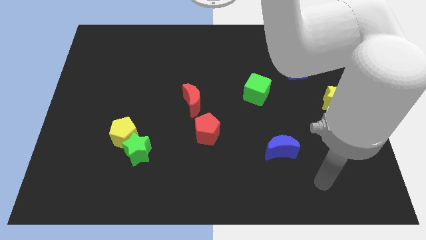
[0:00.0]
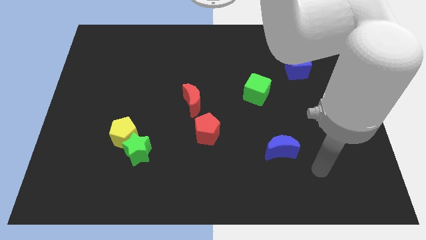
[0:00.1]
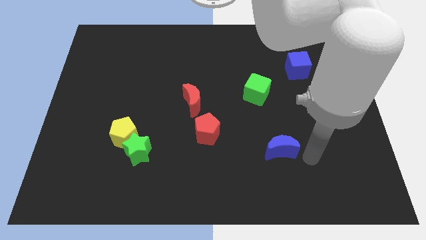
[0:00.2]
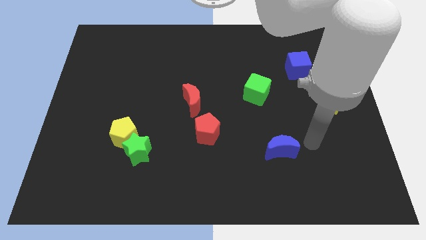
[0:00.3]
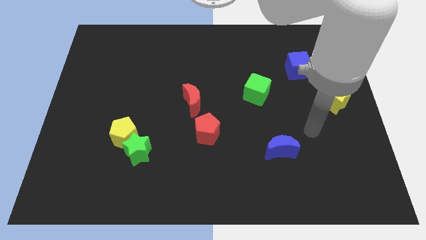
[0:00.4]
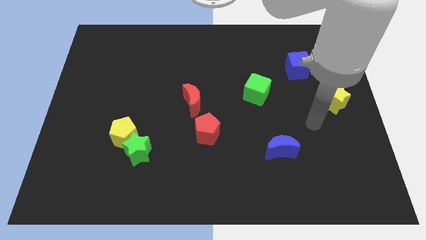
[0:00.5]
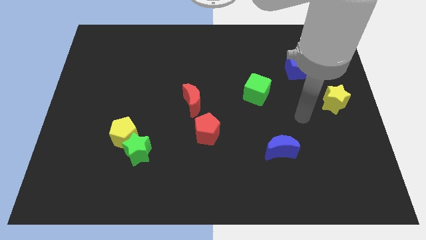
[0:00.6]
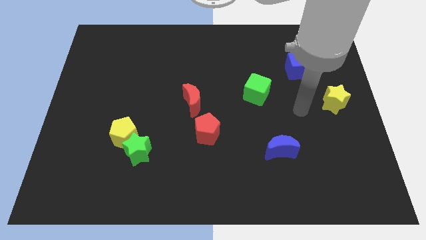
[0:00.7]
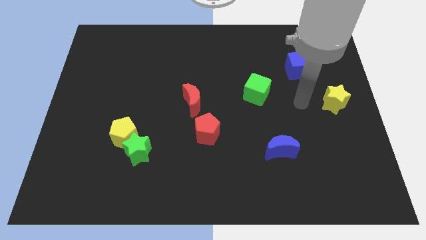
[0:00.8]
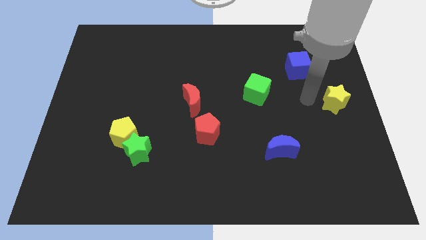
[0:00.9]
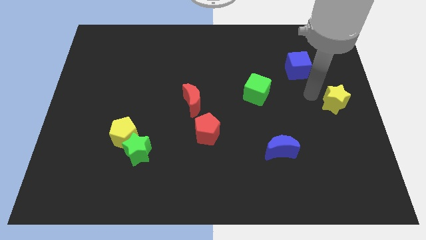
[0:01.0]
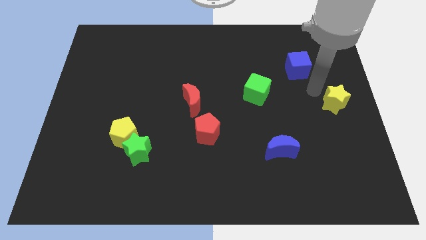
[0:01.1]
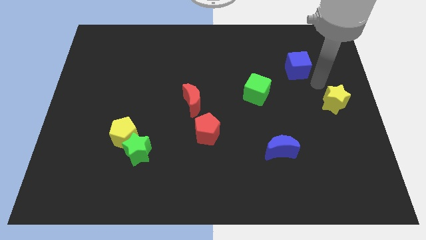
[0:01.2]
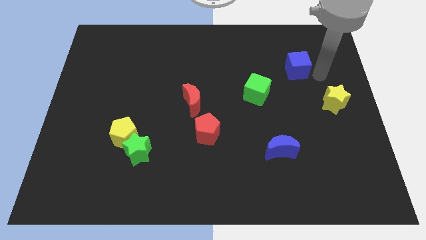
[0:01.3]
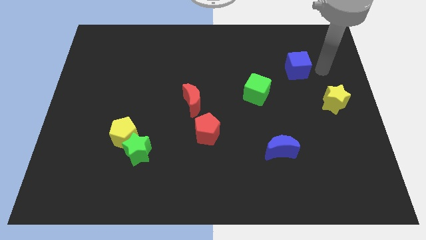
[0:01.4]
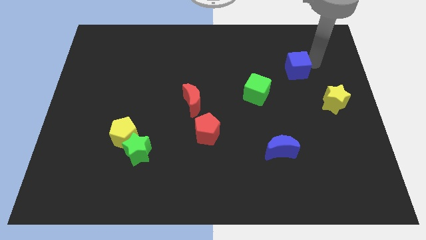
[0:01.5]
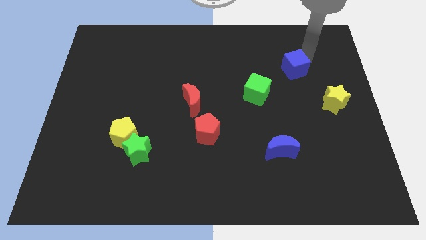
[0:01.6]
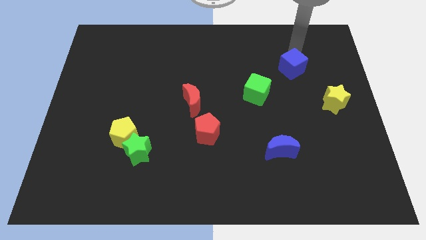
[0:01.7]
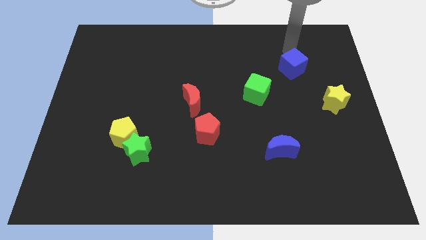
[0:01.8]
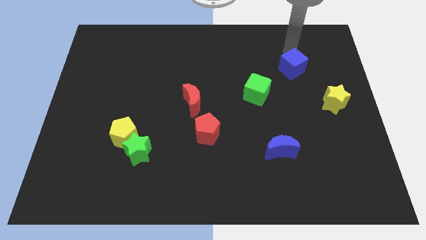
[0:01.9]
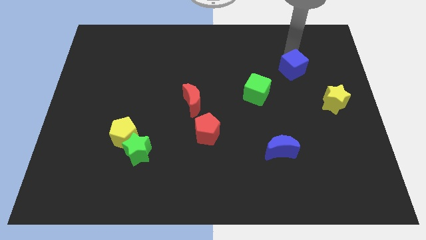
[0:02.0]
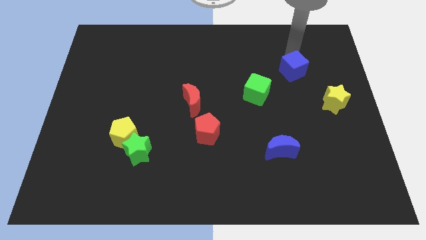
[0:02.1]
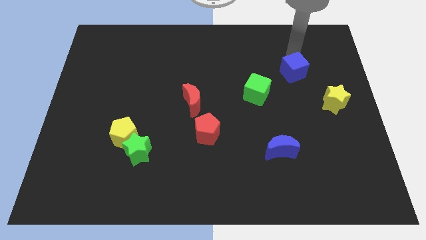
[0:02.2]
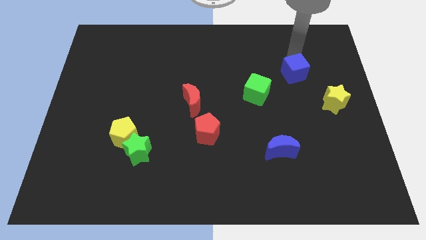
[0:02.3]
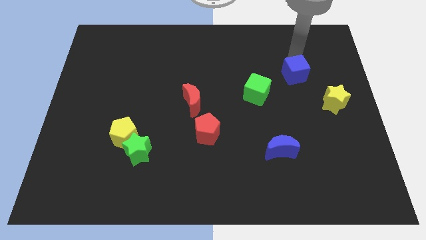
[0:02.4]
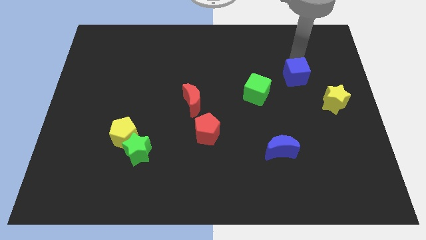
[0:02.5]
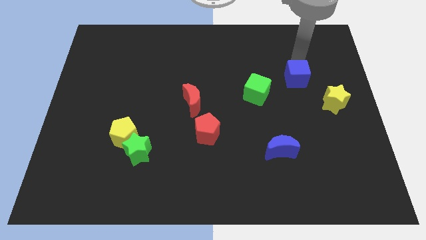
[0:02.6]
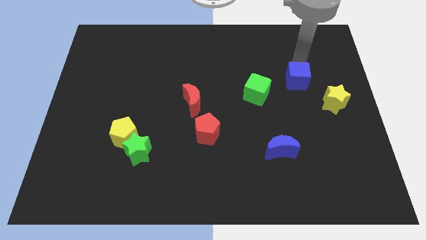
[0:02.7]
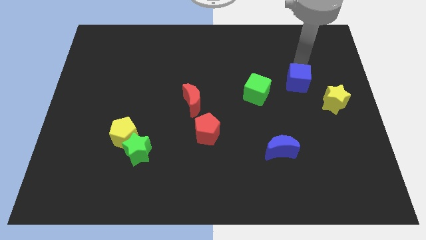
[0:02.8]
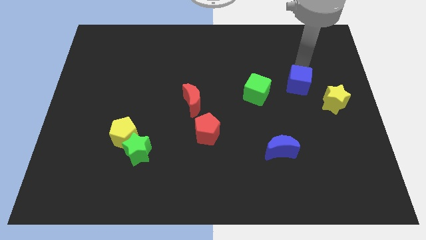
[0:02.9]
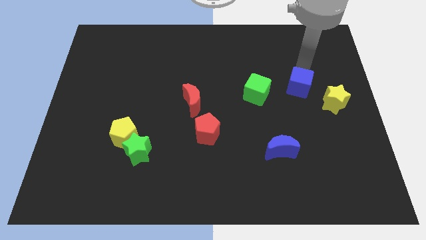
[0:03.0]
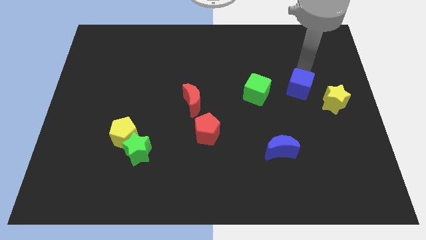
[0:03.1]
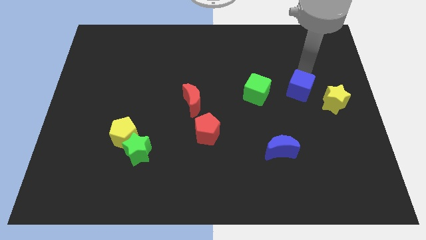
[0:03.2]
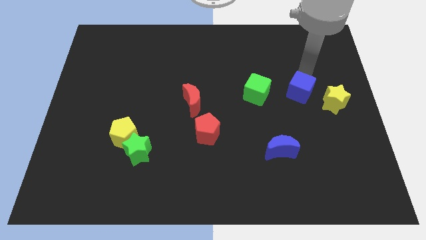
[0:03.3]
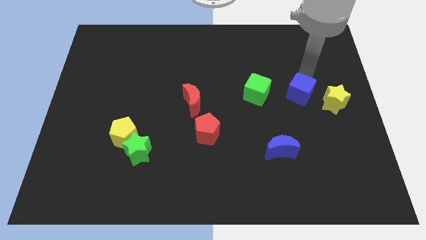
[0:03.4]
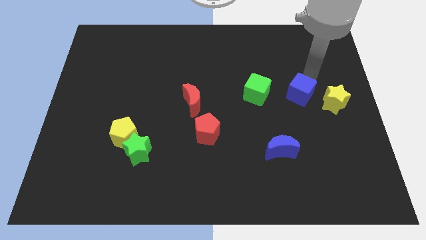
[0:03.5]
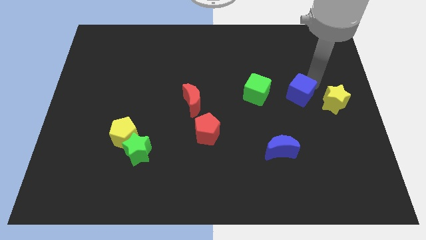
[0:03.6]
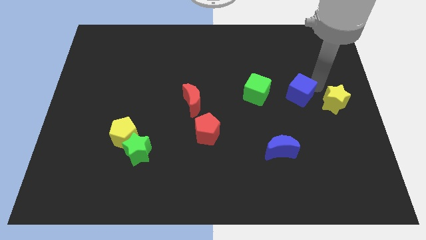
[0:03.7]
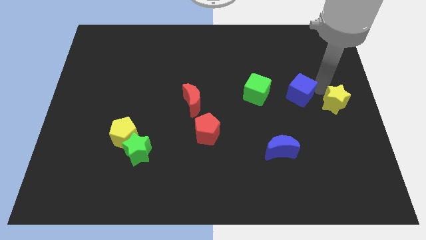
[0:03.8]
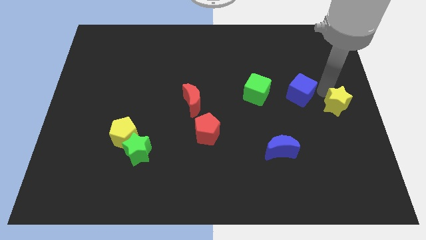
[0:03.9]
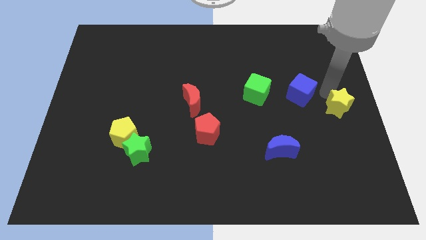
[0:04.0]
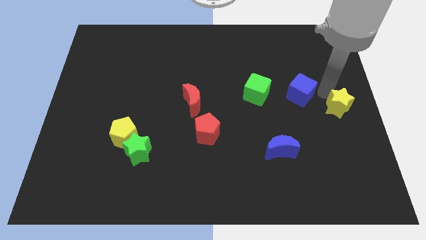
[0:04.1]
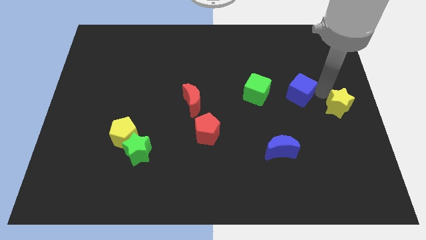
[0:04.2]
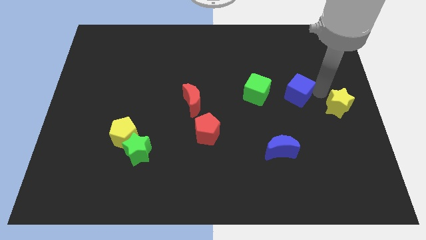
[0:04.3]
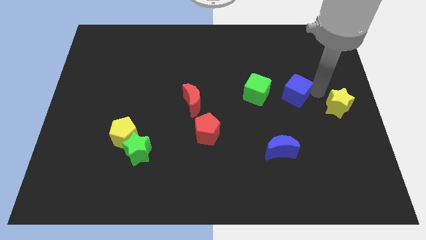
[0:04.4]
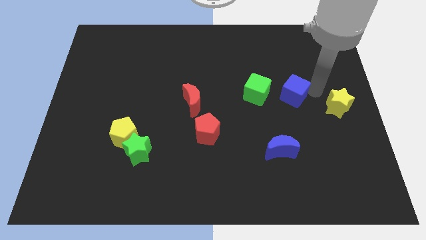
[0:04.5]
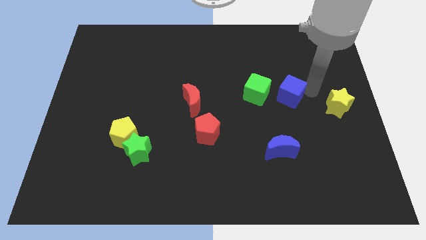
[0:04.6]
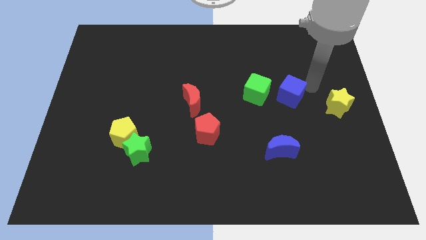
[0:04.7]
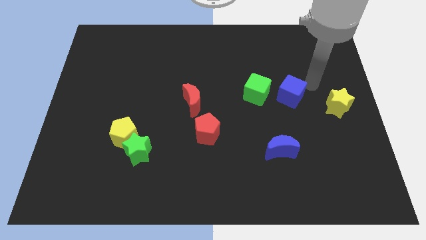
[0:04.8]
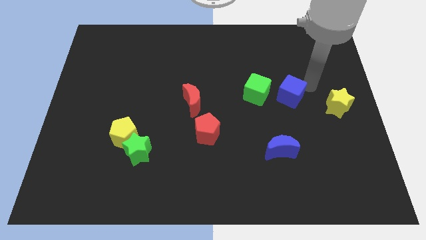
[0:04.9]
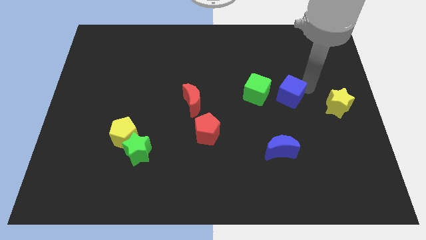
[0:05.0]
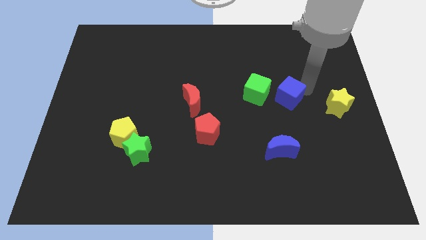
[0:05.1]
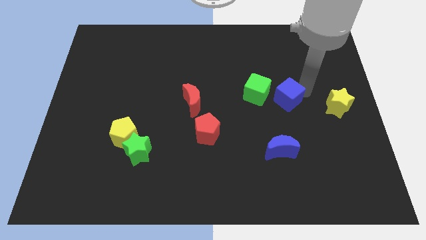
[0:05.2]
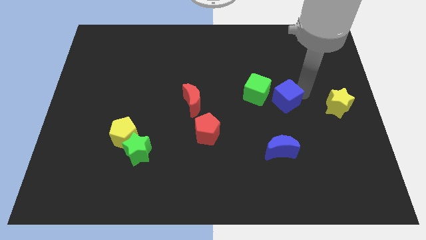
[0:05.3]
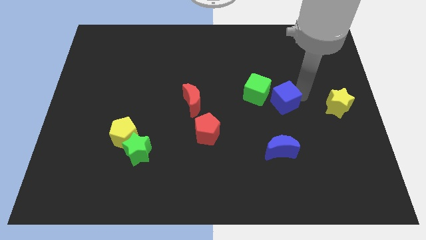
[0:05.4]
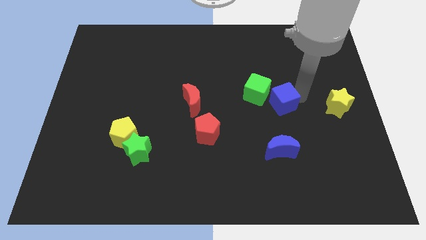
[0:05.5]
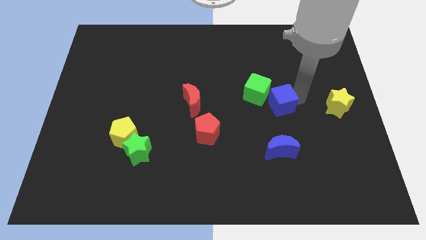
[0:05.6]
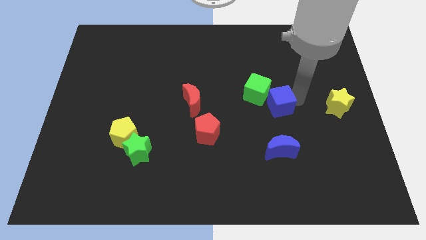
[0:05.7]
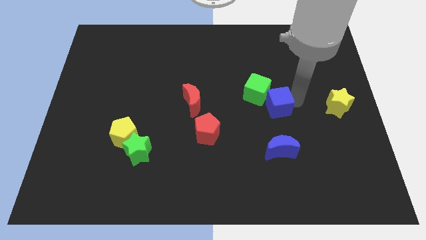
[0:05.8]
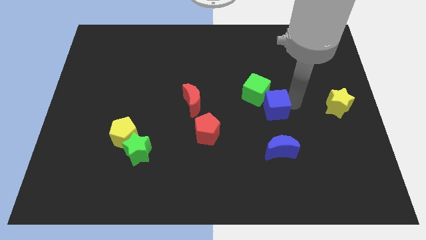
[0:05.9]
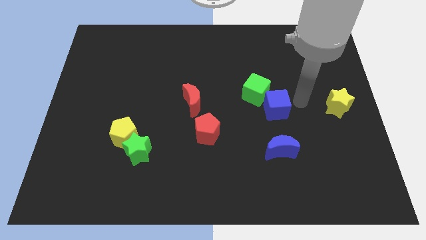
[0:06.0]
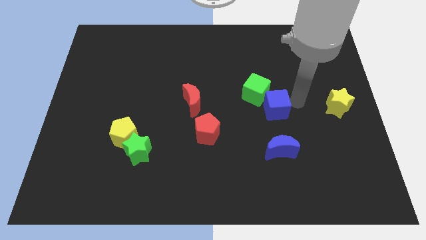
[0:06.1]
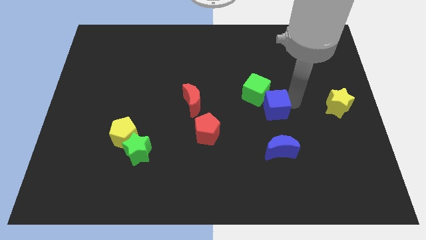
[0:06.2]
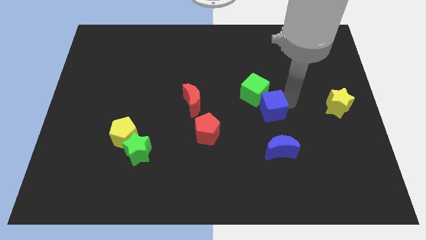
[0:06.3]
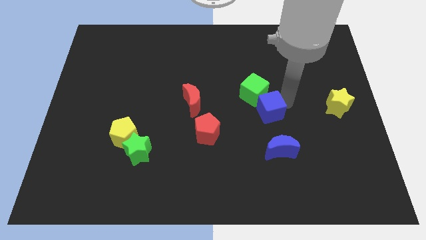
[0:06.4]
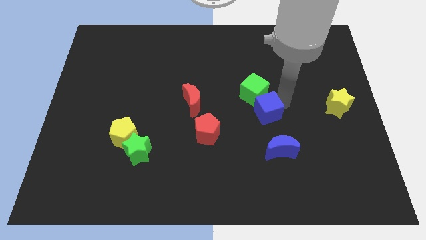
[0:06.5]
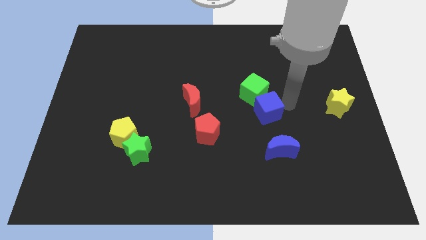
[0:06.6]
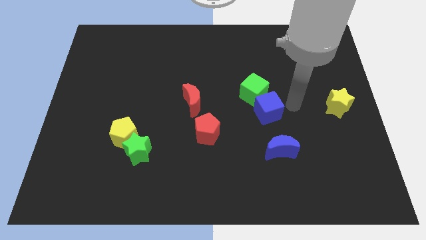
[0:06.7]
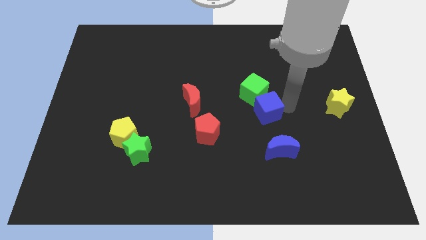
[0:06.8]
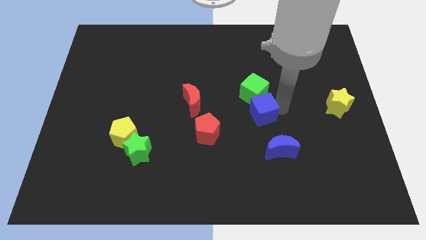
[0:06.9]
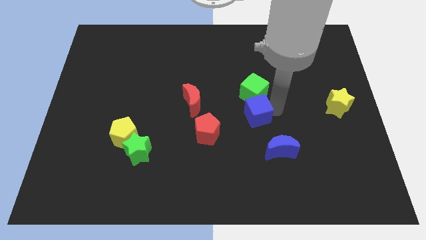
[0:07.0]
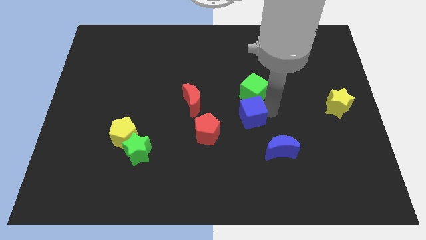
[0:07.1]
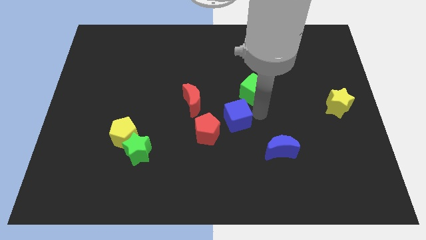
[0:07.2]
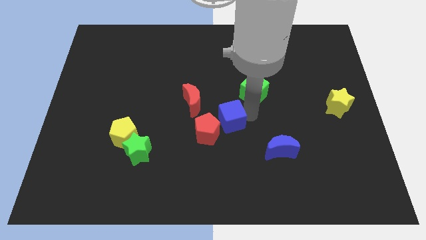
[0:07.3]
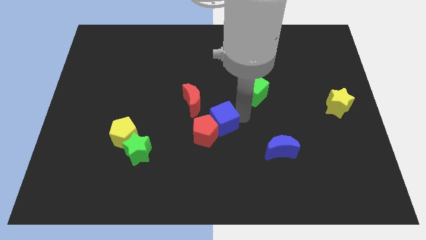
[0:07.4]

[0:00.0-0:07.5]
slide the blue cube close to the red pentagon
